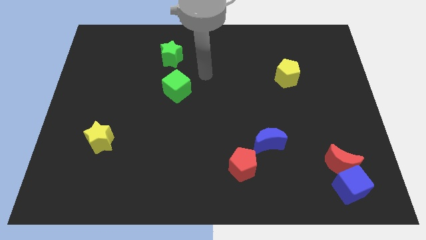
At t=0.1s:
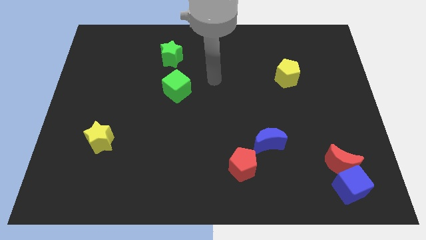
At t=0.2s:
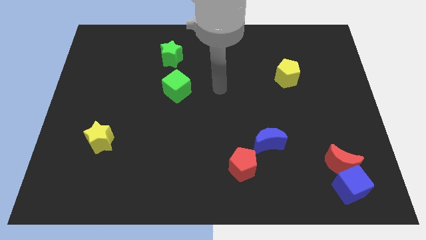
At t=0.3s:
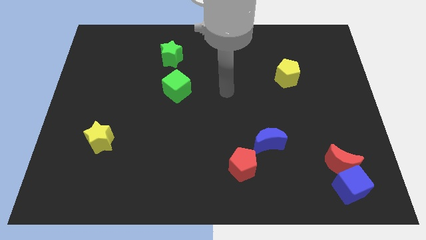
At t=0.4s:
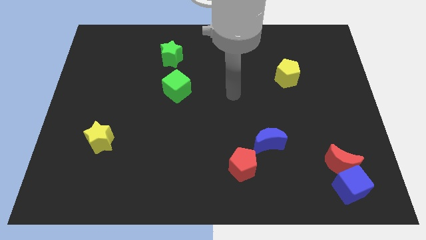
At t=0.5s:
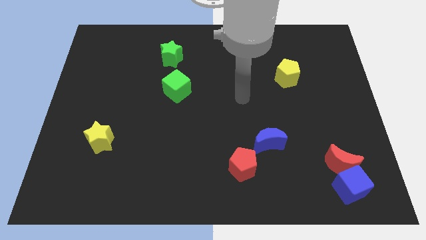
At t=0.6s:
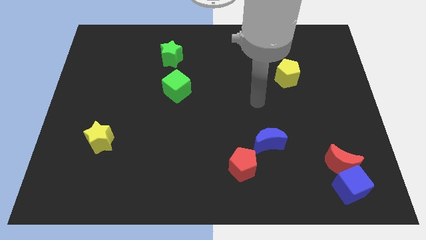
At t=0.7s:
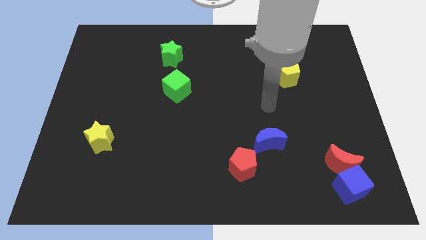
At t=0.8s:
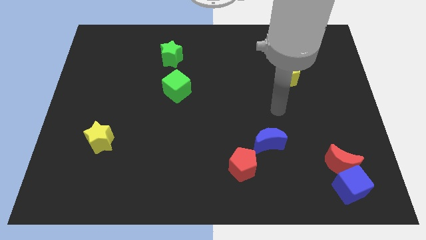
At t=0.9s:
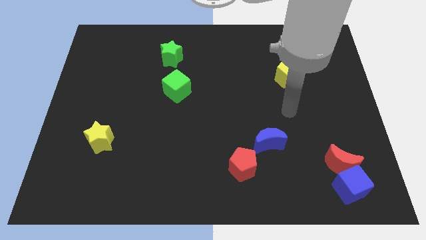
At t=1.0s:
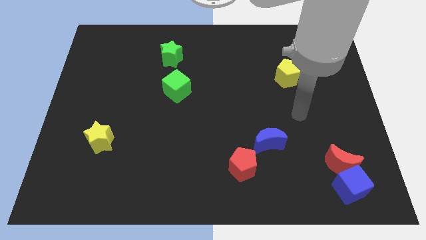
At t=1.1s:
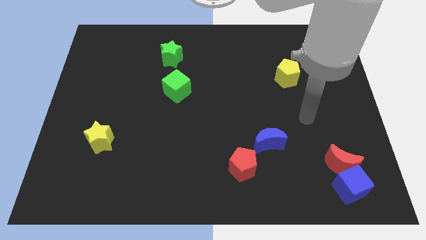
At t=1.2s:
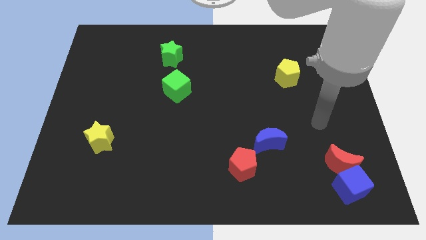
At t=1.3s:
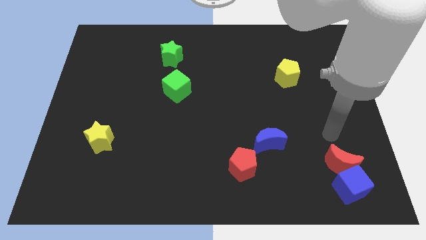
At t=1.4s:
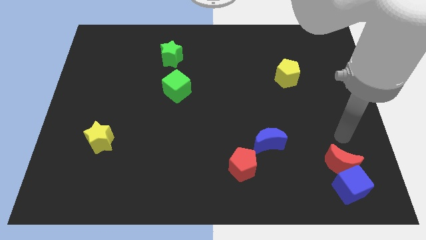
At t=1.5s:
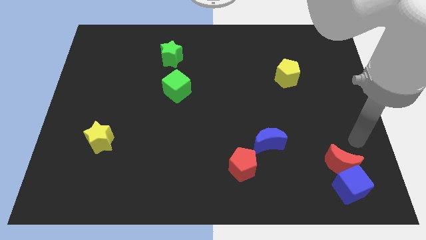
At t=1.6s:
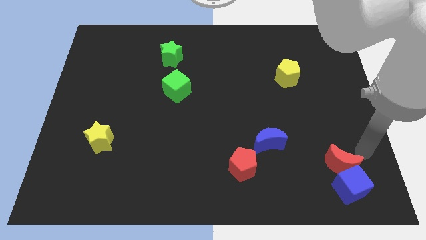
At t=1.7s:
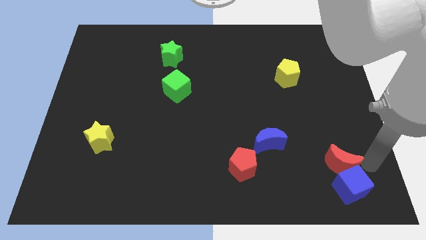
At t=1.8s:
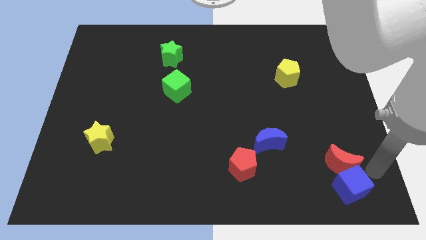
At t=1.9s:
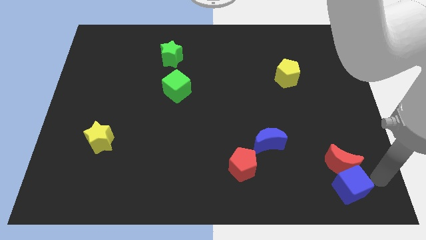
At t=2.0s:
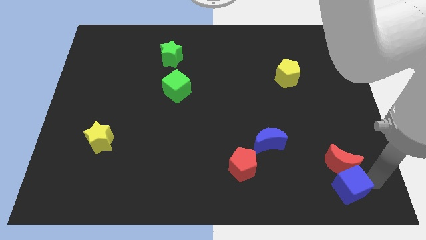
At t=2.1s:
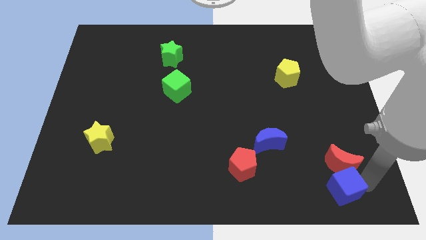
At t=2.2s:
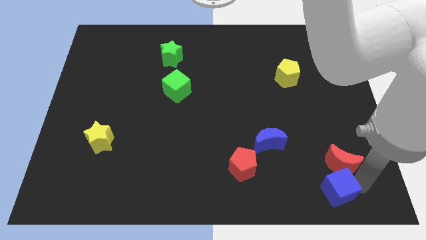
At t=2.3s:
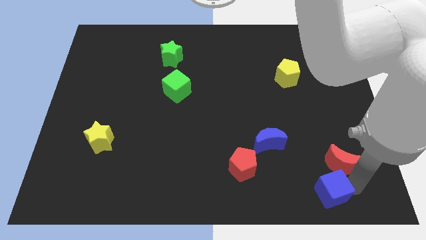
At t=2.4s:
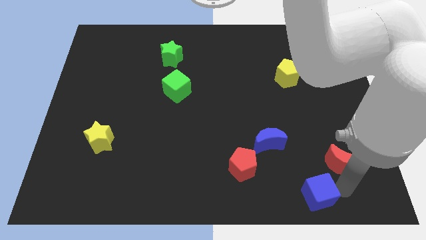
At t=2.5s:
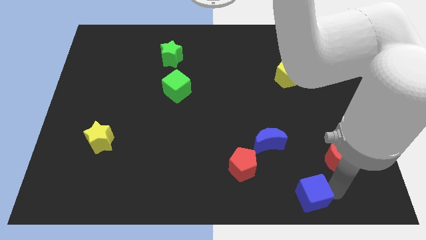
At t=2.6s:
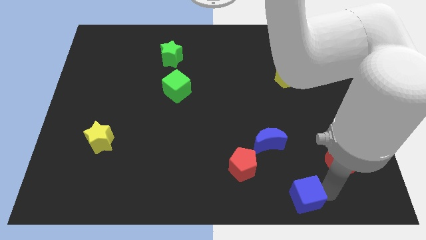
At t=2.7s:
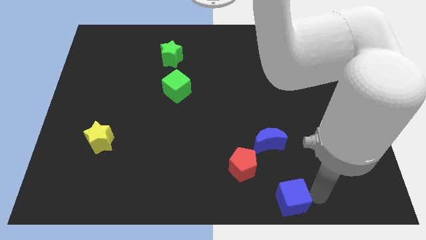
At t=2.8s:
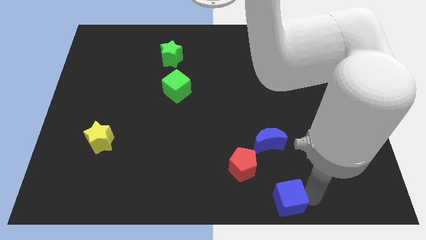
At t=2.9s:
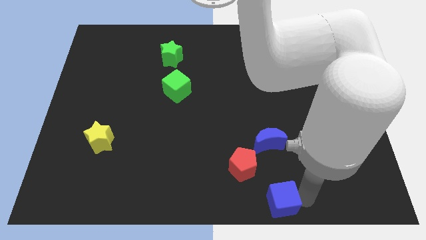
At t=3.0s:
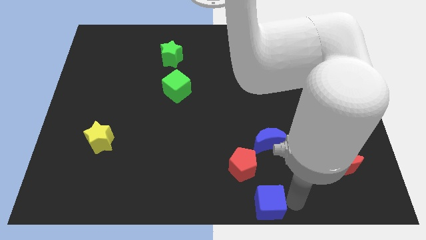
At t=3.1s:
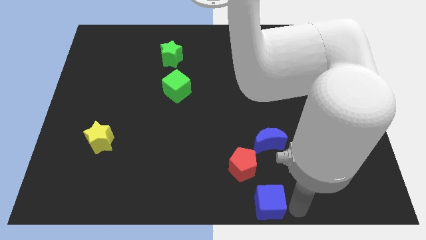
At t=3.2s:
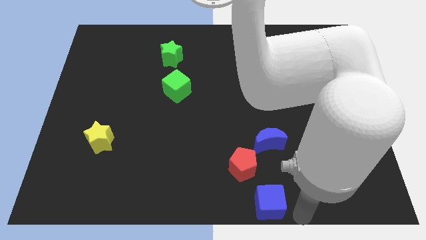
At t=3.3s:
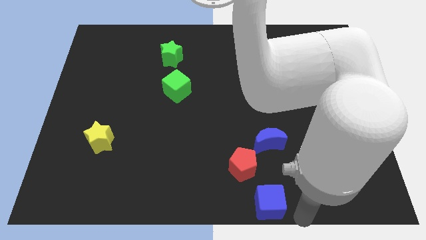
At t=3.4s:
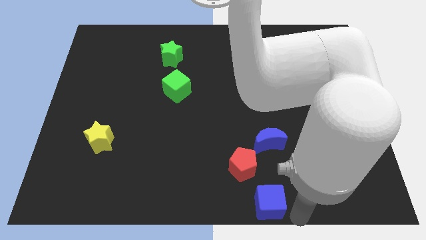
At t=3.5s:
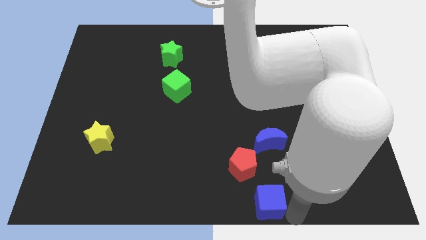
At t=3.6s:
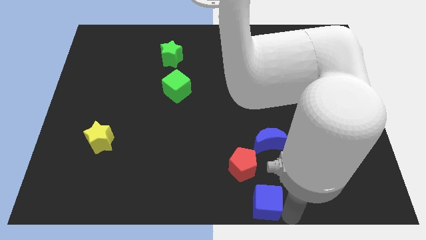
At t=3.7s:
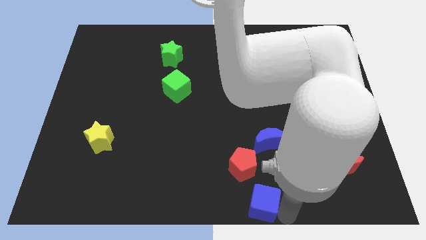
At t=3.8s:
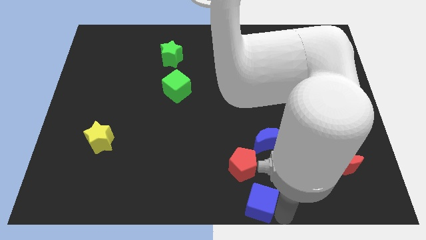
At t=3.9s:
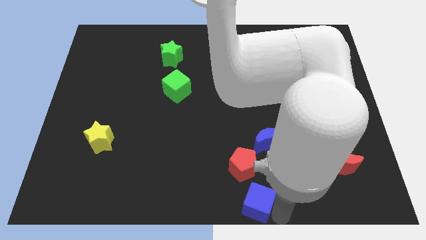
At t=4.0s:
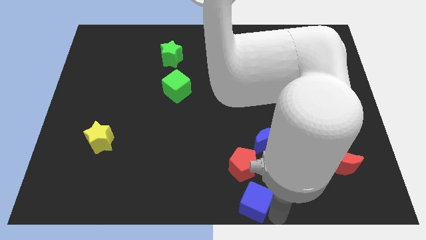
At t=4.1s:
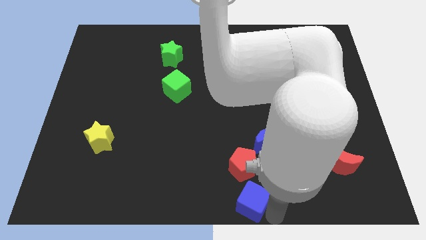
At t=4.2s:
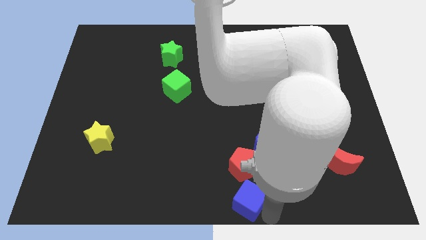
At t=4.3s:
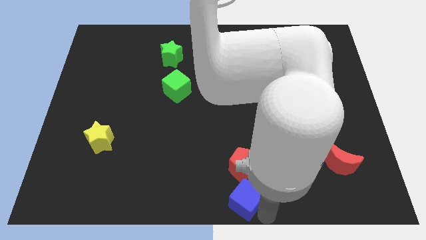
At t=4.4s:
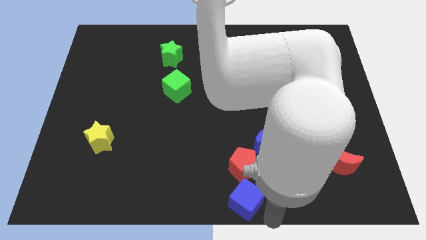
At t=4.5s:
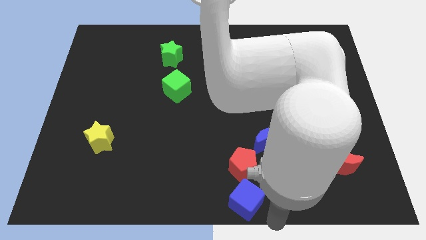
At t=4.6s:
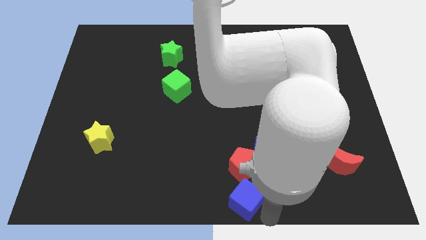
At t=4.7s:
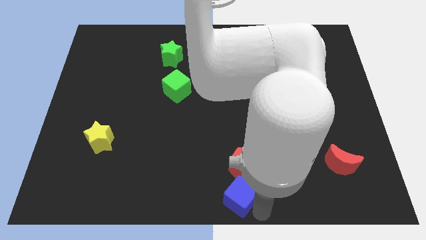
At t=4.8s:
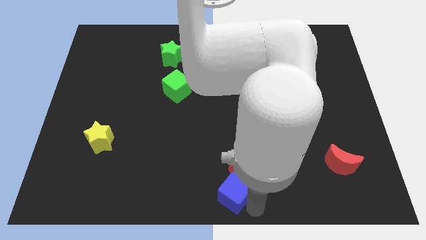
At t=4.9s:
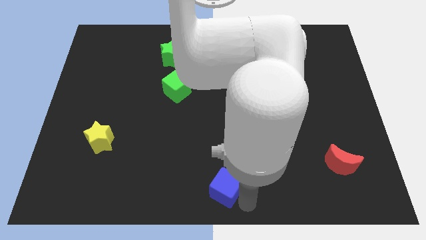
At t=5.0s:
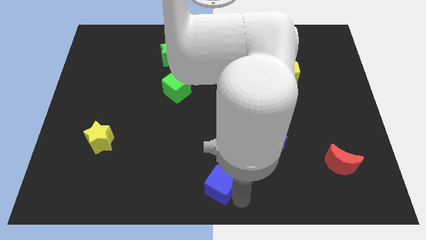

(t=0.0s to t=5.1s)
put the blue cube just left of the red pentagon

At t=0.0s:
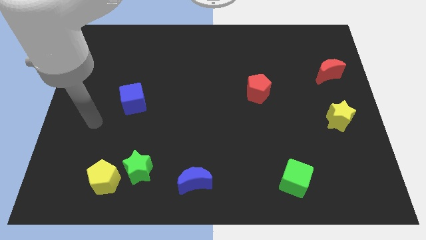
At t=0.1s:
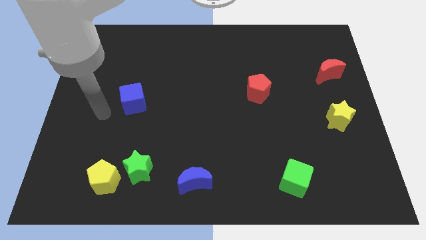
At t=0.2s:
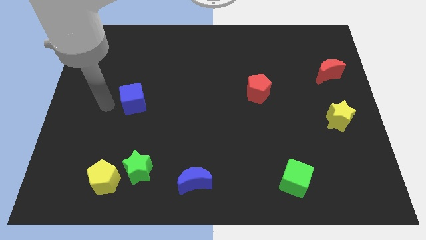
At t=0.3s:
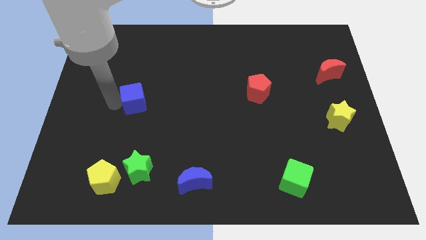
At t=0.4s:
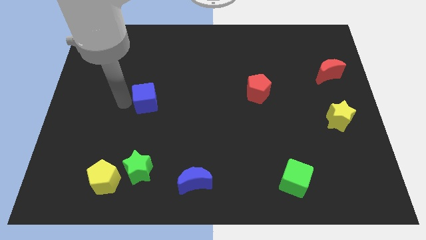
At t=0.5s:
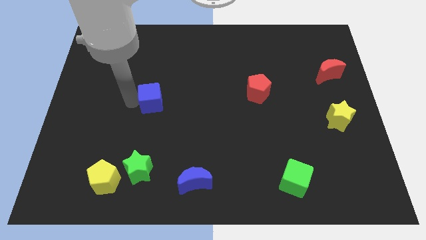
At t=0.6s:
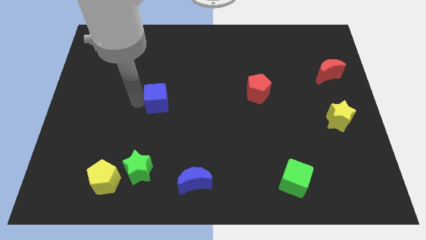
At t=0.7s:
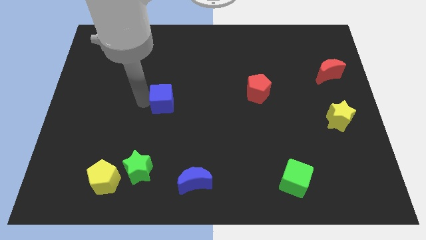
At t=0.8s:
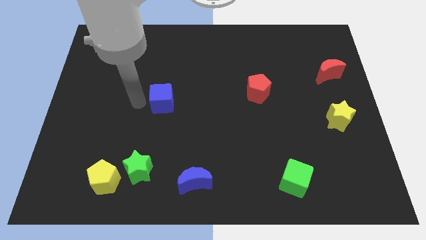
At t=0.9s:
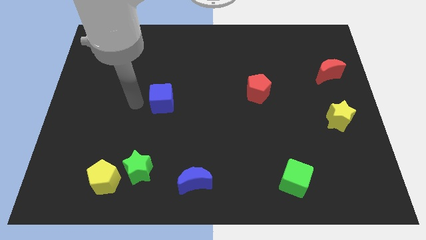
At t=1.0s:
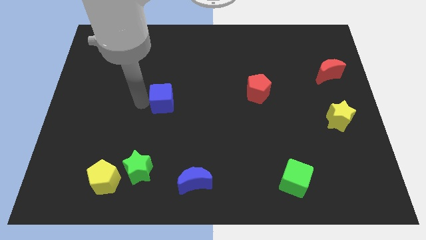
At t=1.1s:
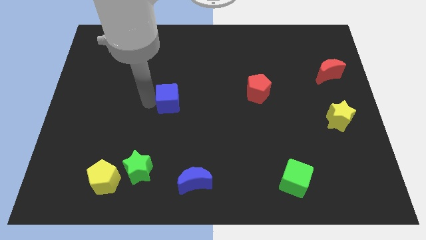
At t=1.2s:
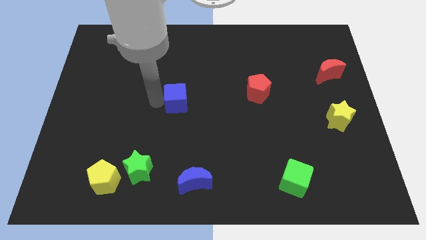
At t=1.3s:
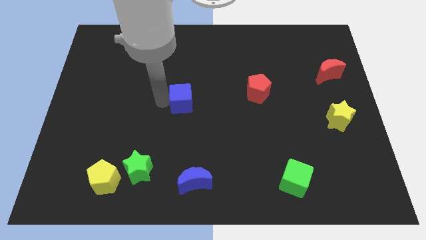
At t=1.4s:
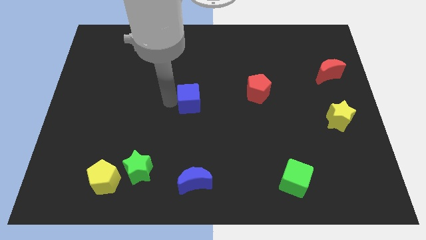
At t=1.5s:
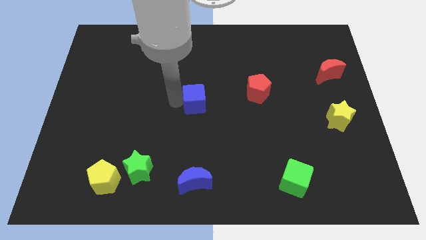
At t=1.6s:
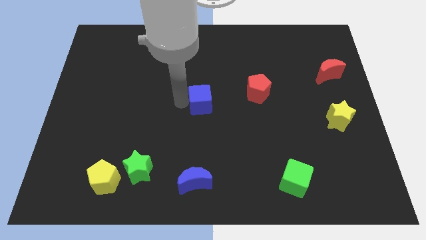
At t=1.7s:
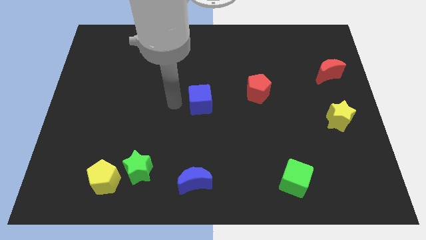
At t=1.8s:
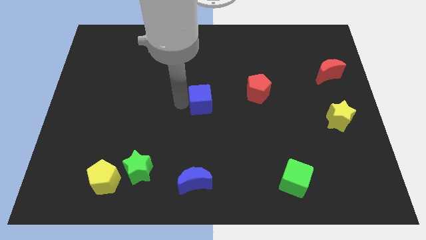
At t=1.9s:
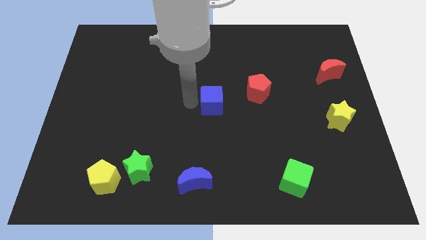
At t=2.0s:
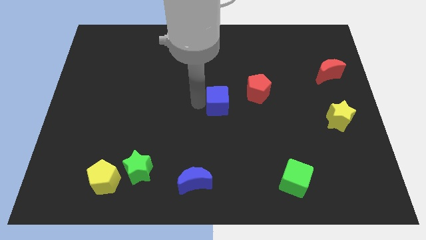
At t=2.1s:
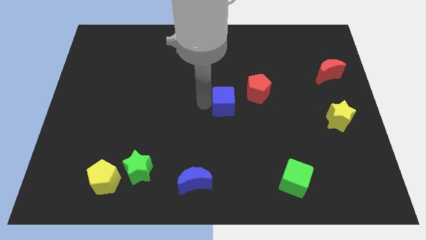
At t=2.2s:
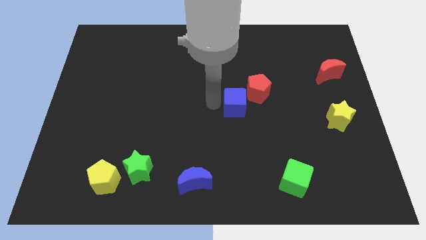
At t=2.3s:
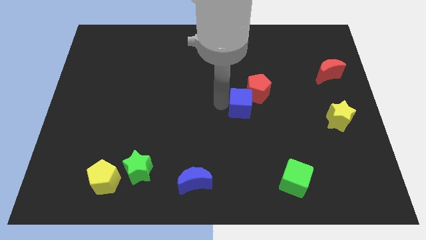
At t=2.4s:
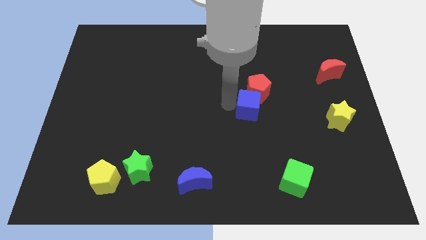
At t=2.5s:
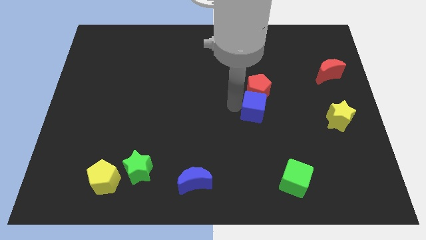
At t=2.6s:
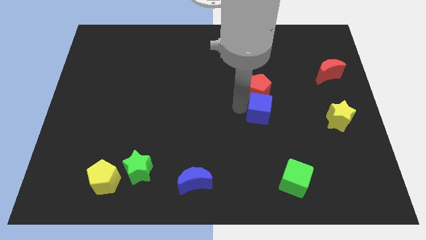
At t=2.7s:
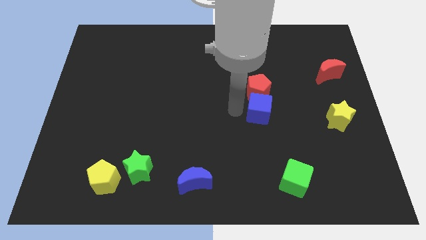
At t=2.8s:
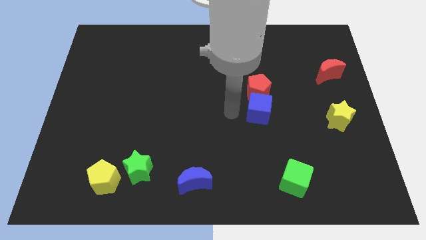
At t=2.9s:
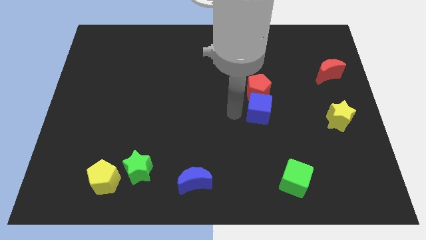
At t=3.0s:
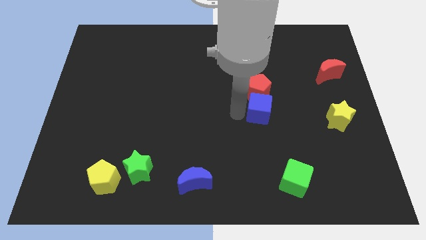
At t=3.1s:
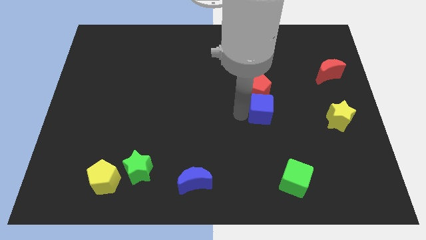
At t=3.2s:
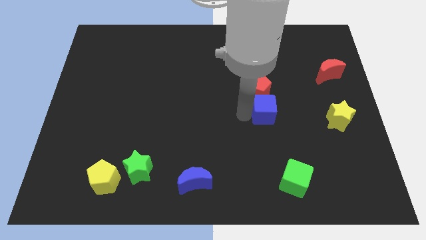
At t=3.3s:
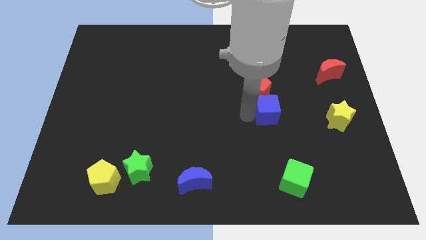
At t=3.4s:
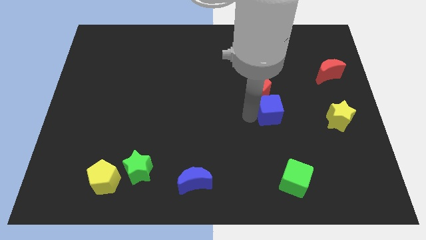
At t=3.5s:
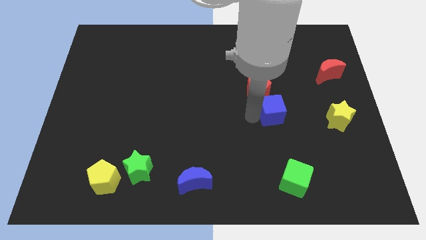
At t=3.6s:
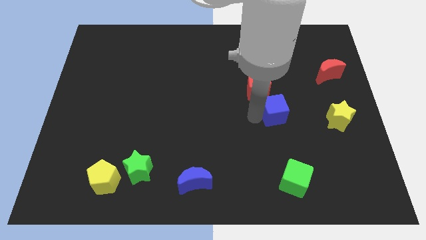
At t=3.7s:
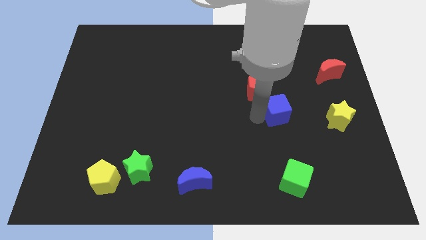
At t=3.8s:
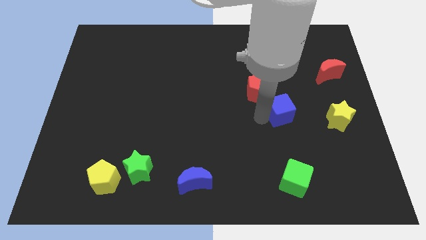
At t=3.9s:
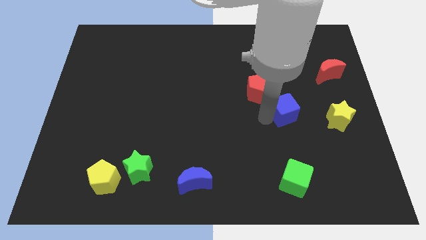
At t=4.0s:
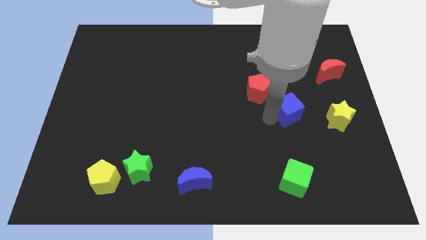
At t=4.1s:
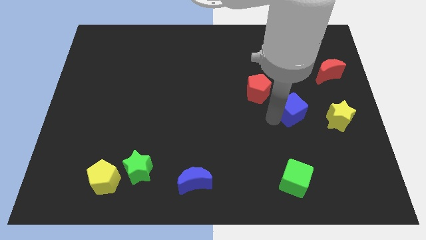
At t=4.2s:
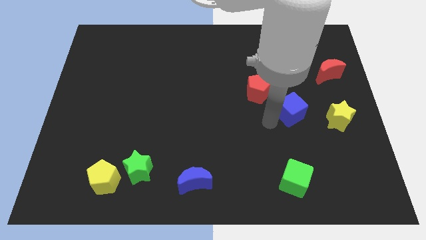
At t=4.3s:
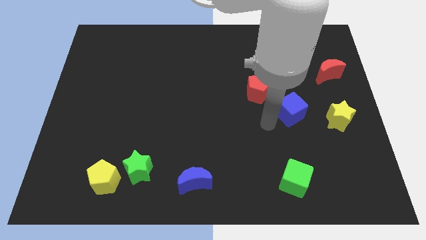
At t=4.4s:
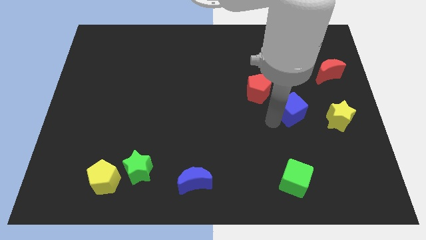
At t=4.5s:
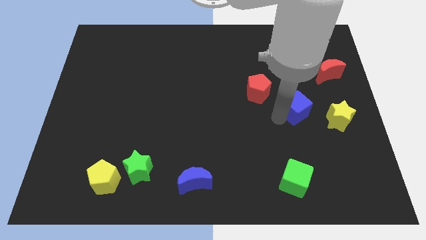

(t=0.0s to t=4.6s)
slide the blue cube to the top left side of the yellow star
